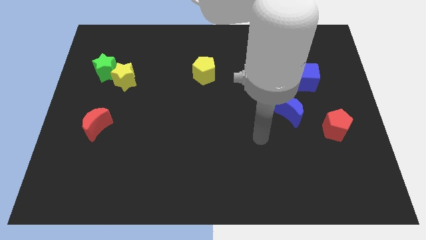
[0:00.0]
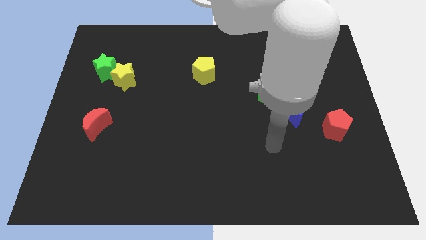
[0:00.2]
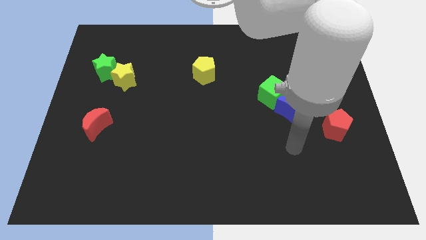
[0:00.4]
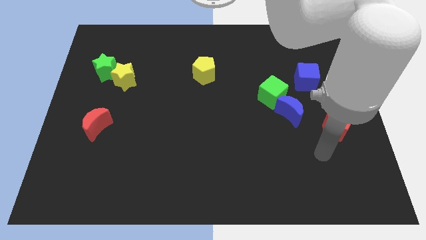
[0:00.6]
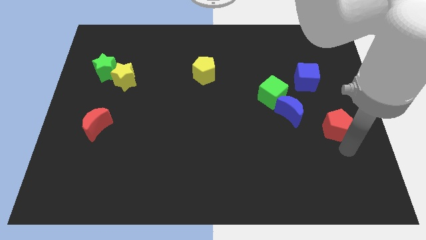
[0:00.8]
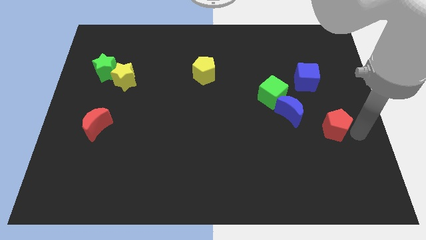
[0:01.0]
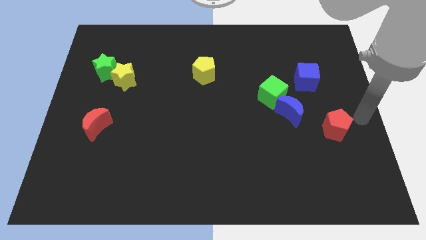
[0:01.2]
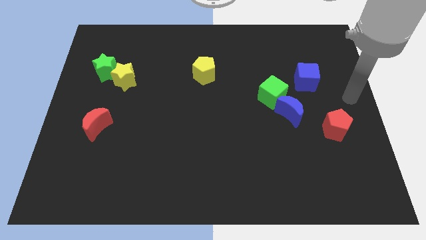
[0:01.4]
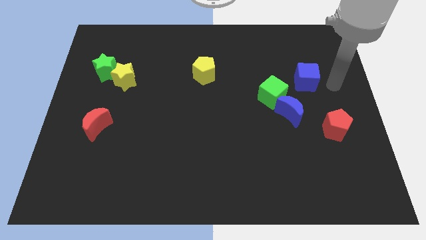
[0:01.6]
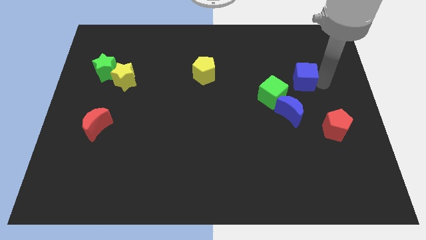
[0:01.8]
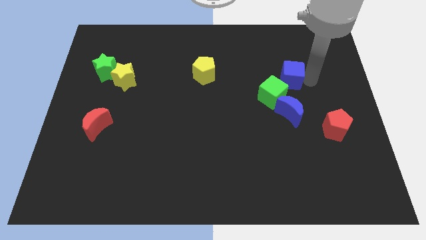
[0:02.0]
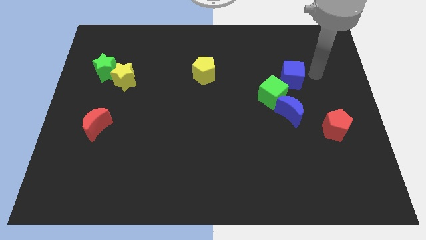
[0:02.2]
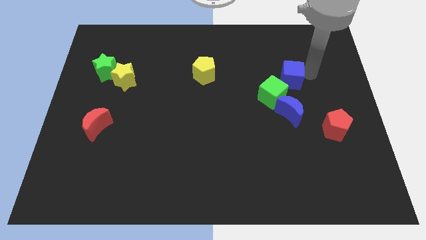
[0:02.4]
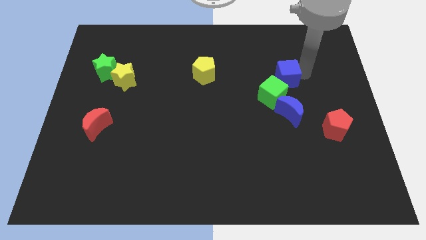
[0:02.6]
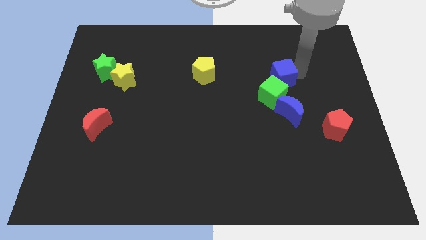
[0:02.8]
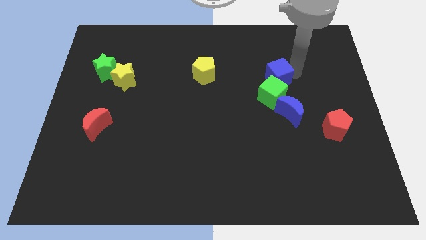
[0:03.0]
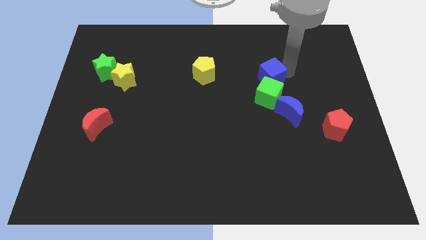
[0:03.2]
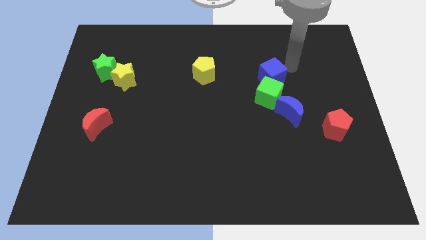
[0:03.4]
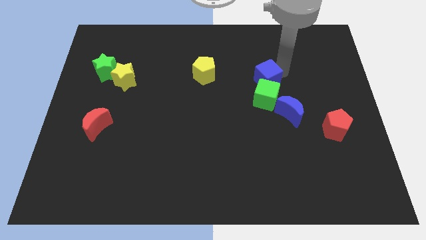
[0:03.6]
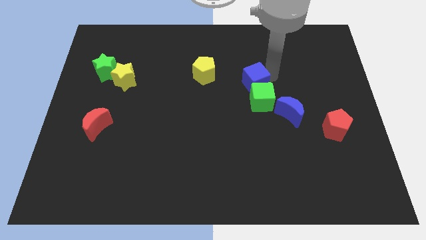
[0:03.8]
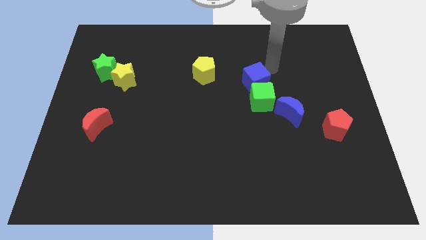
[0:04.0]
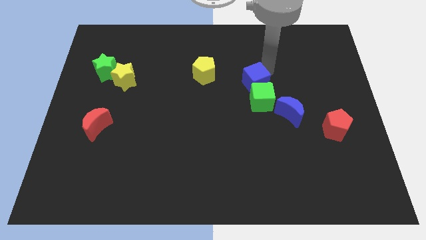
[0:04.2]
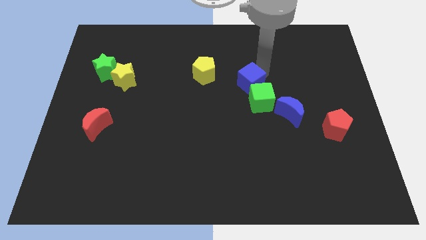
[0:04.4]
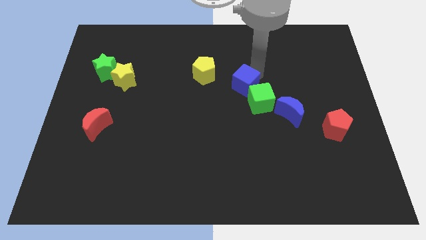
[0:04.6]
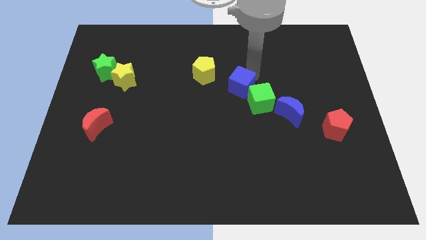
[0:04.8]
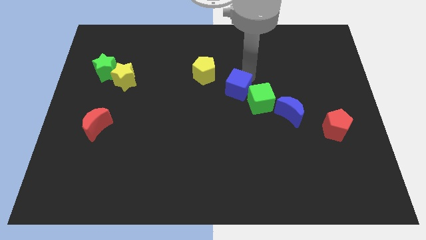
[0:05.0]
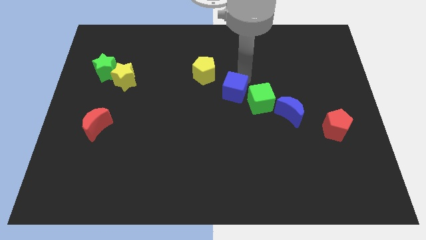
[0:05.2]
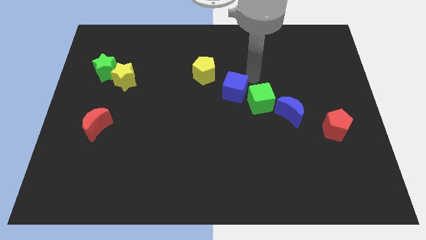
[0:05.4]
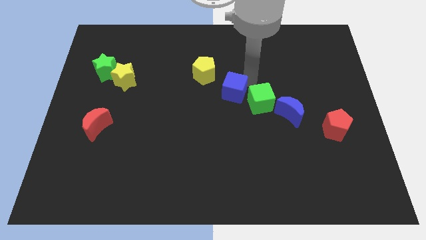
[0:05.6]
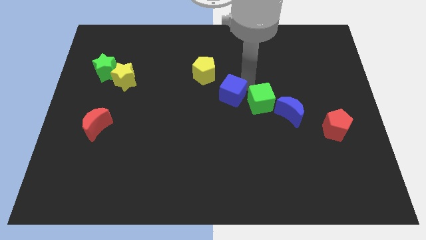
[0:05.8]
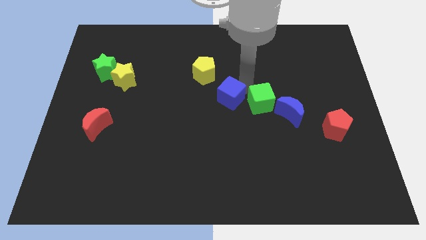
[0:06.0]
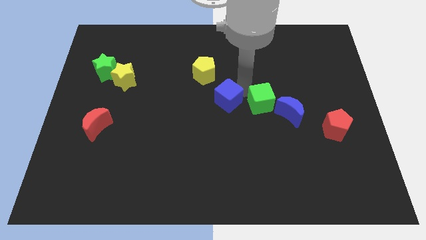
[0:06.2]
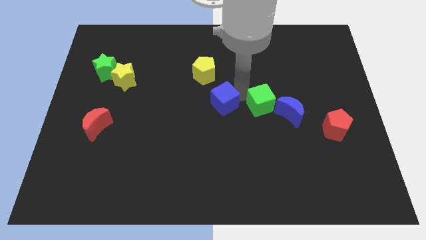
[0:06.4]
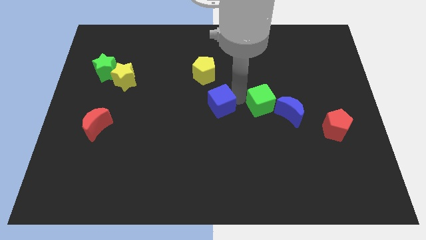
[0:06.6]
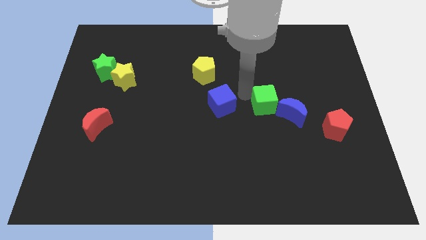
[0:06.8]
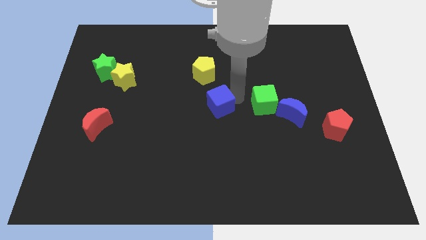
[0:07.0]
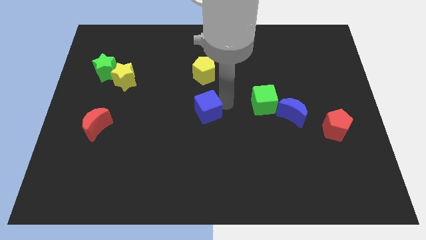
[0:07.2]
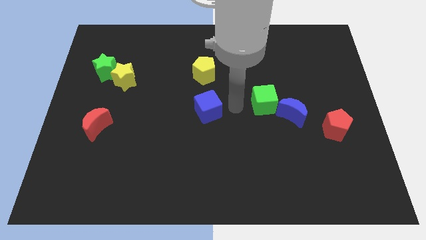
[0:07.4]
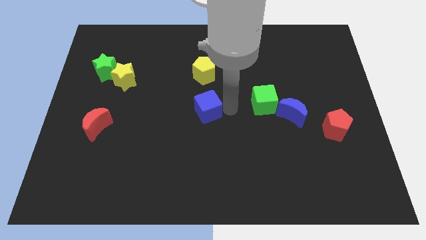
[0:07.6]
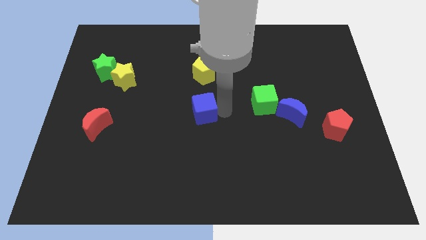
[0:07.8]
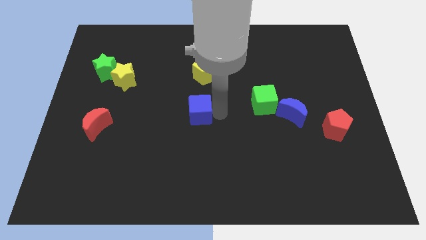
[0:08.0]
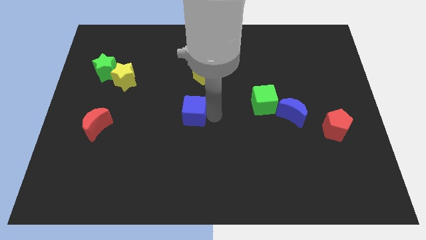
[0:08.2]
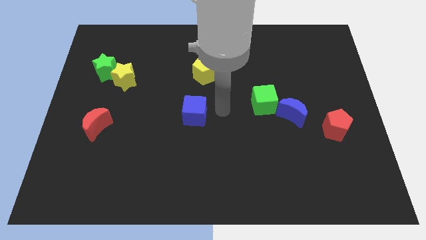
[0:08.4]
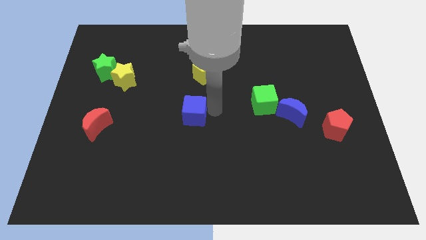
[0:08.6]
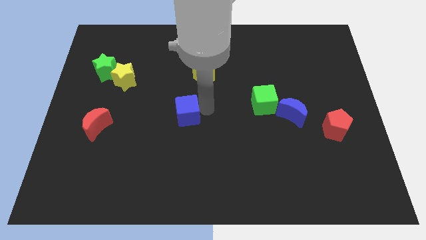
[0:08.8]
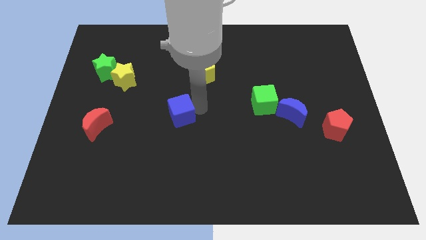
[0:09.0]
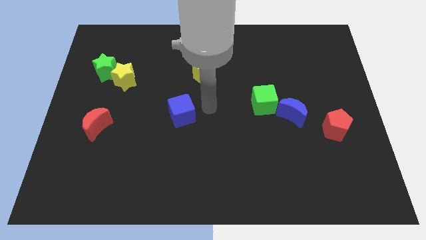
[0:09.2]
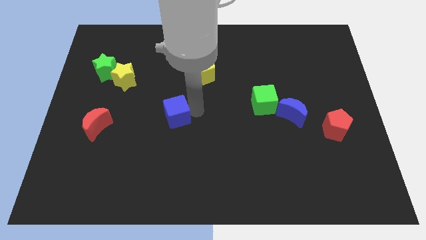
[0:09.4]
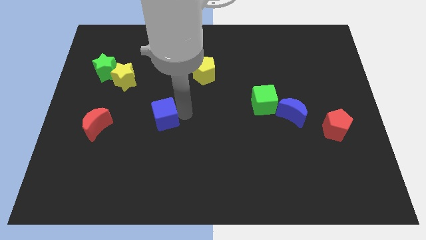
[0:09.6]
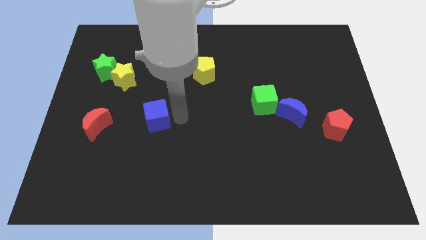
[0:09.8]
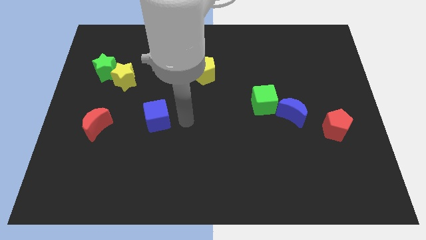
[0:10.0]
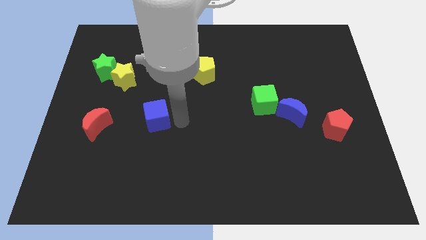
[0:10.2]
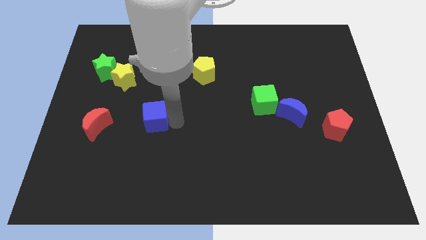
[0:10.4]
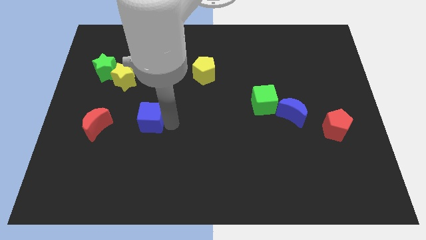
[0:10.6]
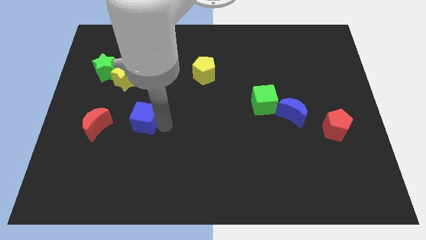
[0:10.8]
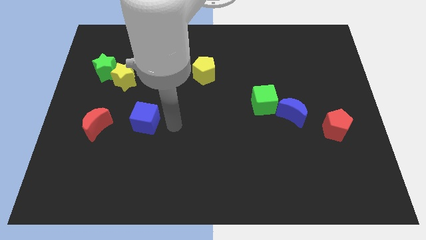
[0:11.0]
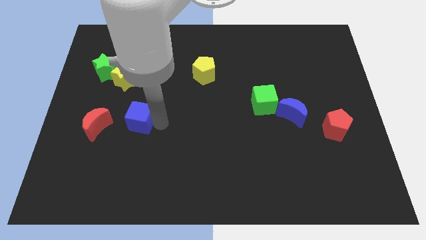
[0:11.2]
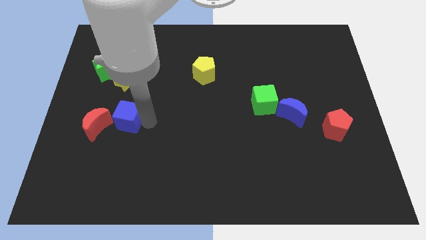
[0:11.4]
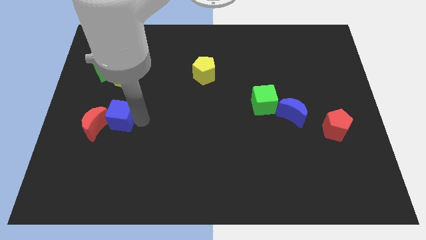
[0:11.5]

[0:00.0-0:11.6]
move the blue cube close to the red moon

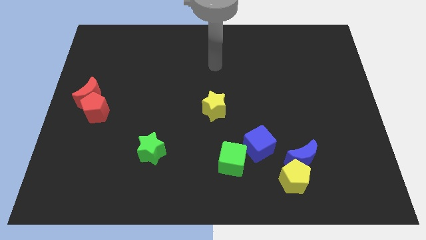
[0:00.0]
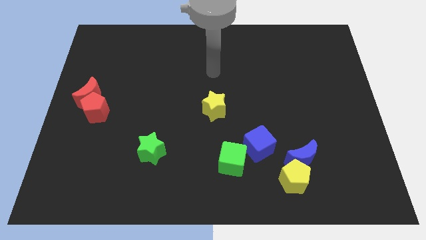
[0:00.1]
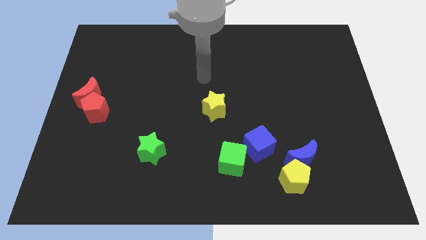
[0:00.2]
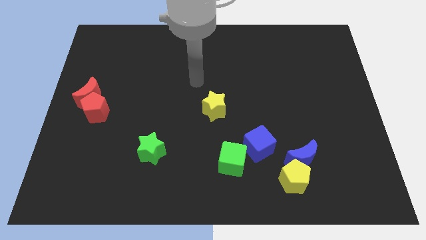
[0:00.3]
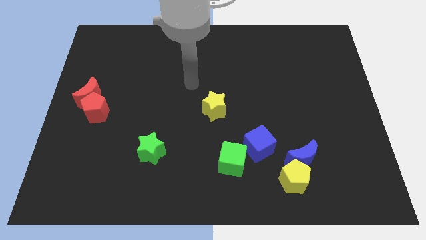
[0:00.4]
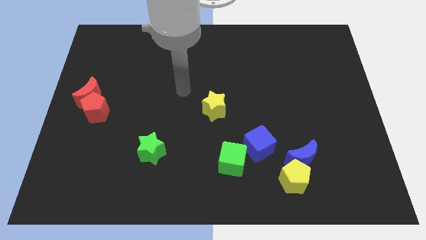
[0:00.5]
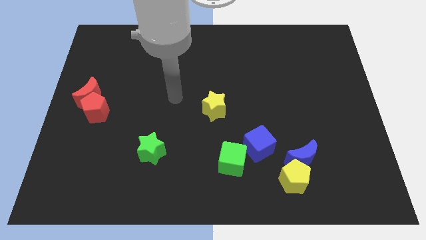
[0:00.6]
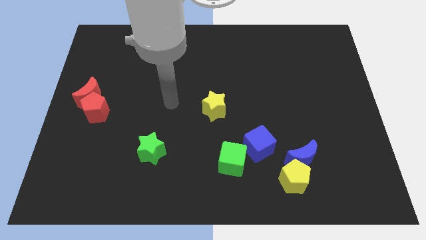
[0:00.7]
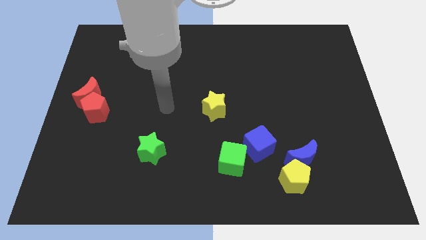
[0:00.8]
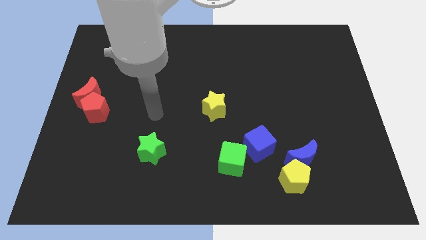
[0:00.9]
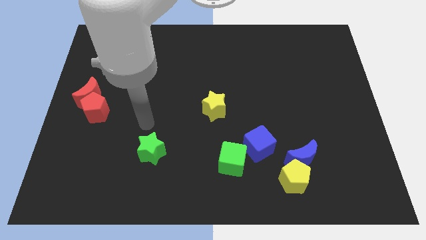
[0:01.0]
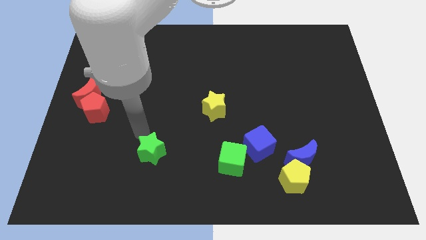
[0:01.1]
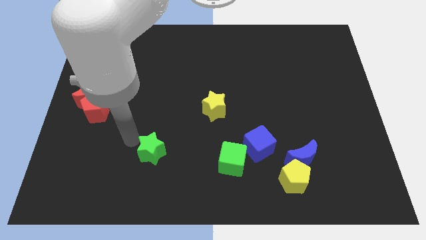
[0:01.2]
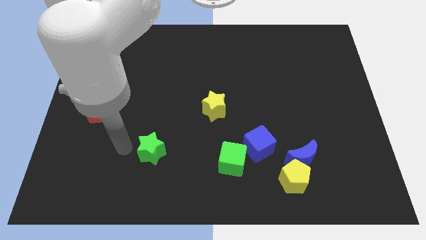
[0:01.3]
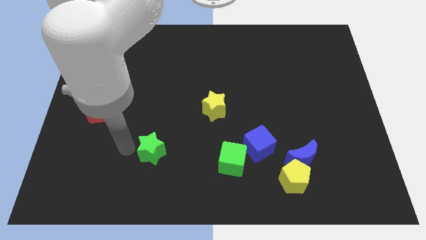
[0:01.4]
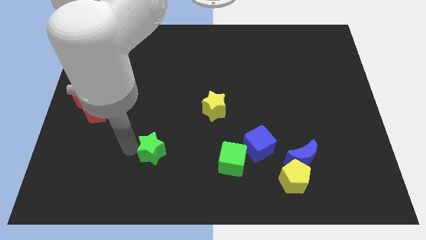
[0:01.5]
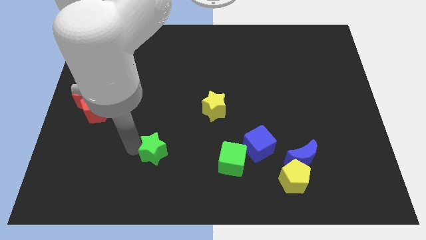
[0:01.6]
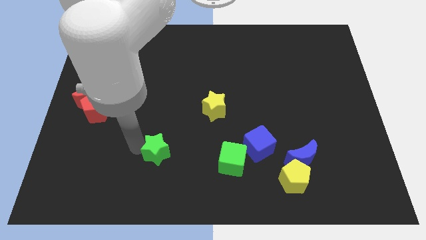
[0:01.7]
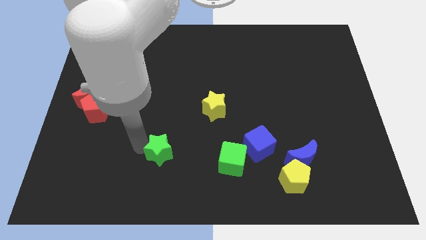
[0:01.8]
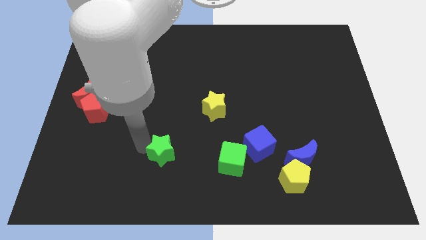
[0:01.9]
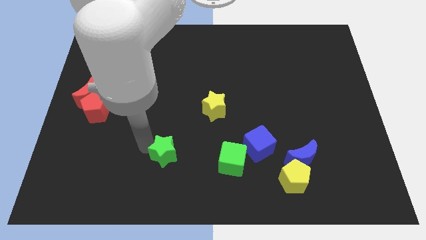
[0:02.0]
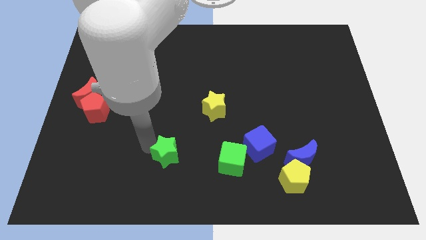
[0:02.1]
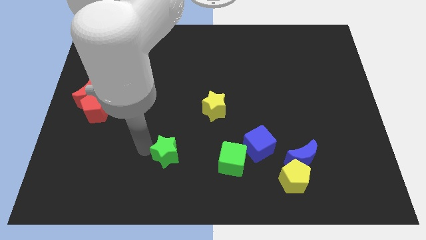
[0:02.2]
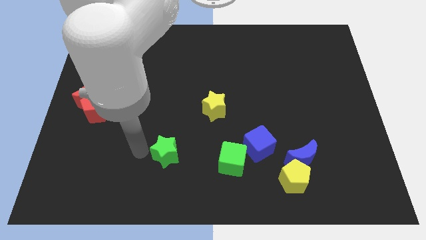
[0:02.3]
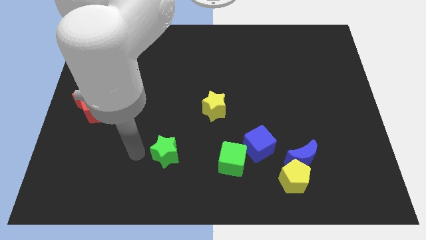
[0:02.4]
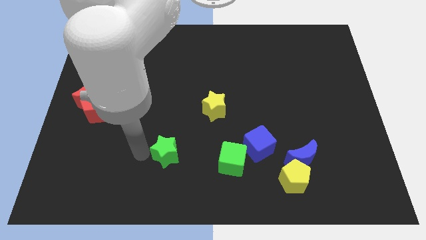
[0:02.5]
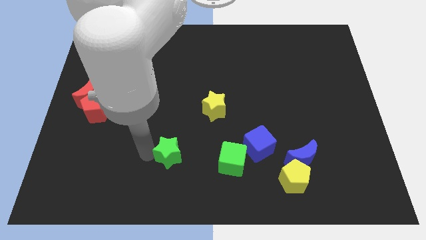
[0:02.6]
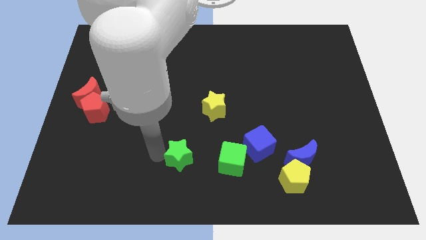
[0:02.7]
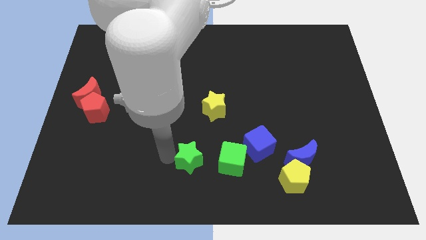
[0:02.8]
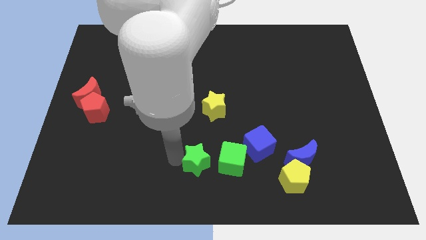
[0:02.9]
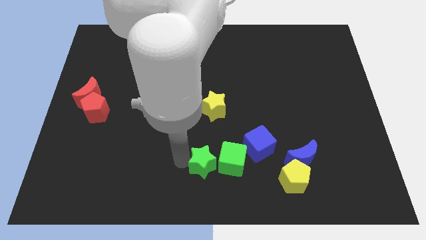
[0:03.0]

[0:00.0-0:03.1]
slide the green star close to the green cube
